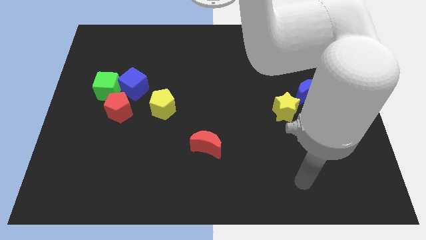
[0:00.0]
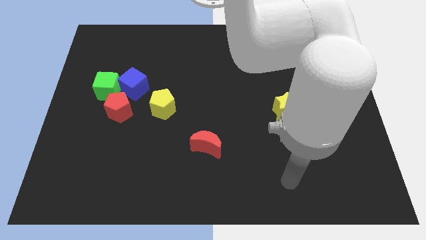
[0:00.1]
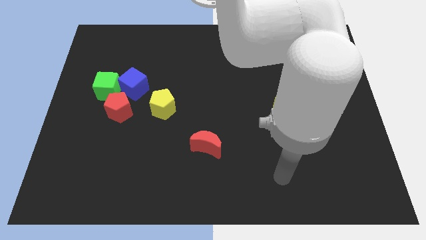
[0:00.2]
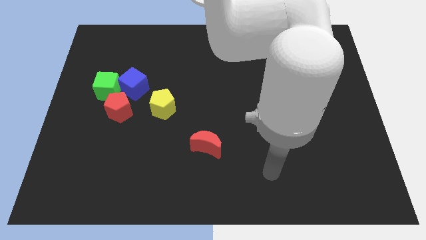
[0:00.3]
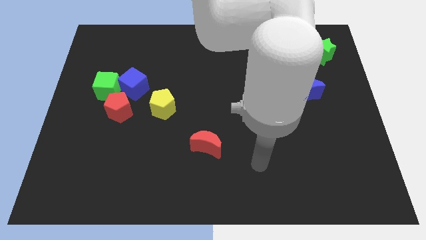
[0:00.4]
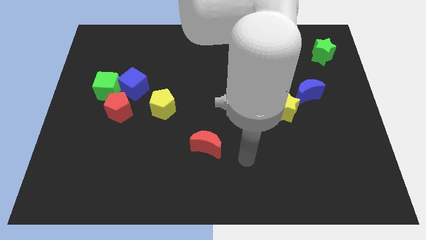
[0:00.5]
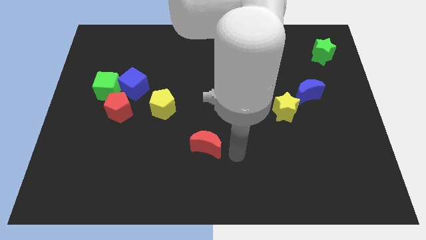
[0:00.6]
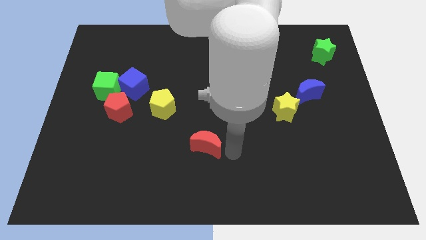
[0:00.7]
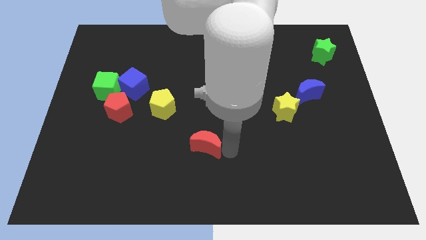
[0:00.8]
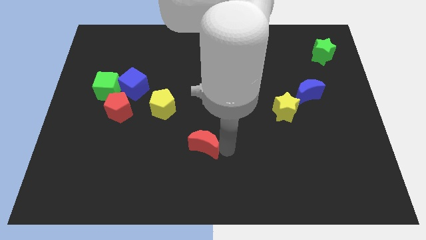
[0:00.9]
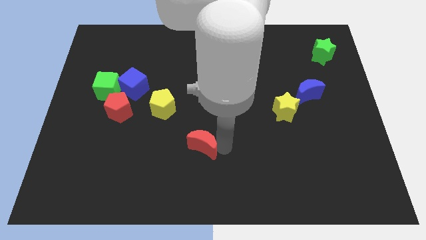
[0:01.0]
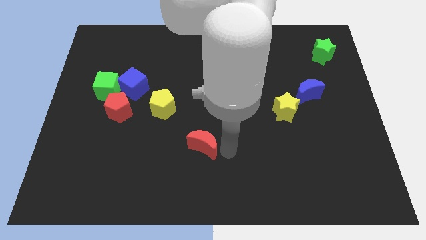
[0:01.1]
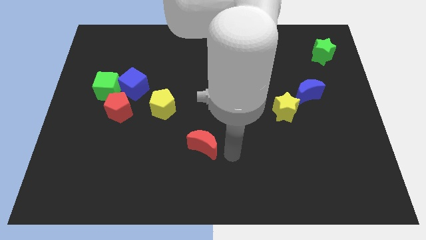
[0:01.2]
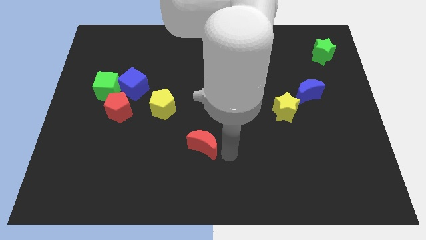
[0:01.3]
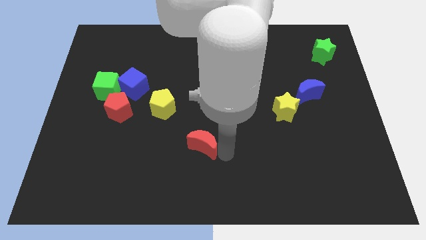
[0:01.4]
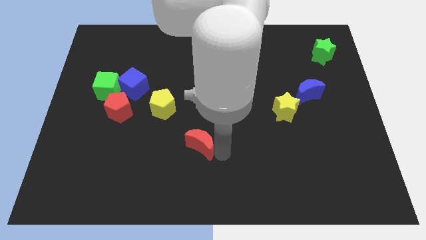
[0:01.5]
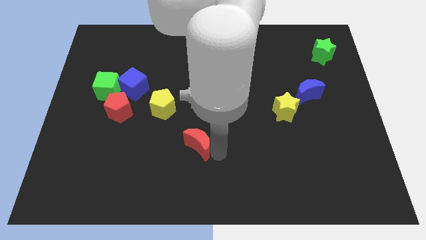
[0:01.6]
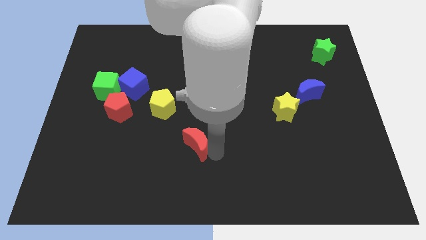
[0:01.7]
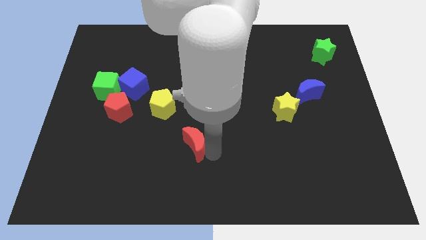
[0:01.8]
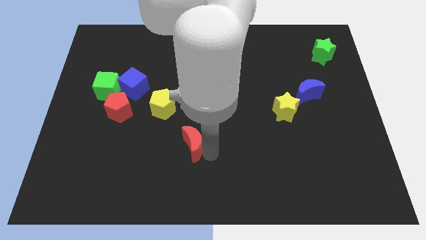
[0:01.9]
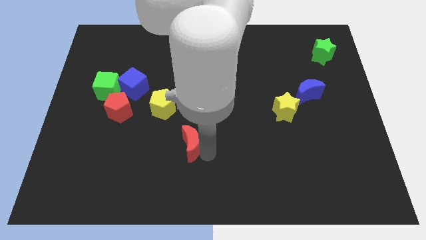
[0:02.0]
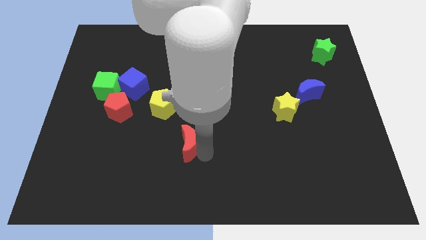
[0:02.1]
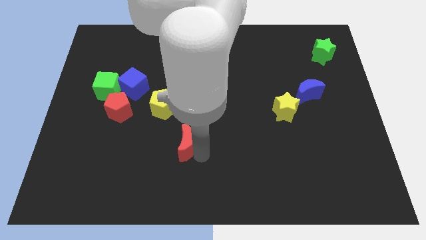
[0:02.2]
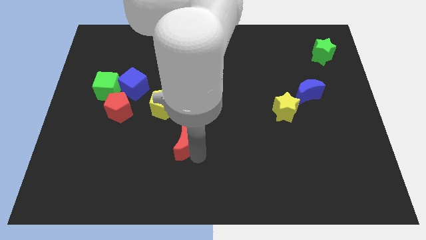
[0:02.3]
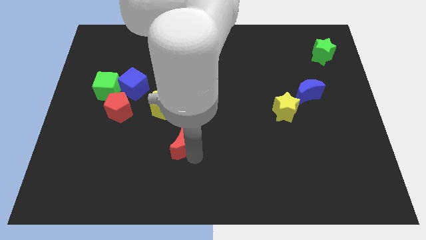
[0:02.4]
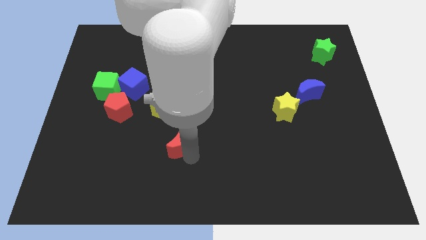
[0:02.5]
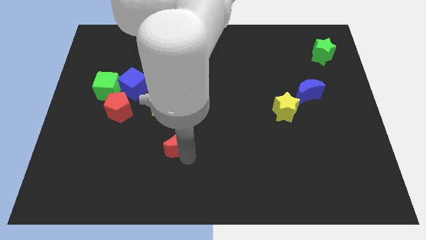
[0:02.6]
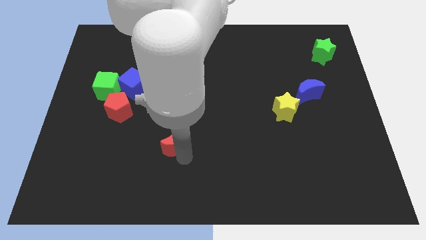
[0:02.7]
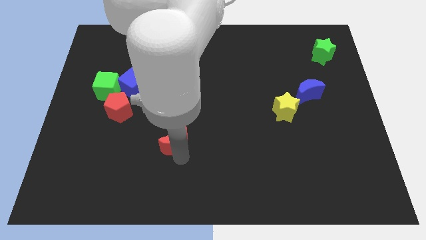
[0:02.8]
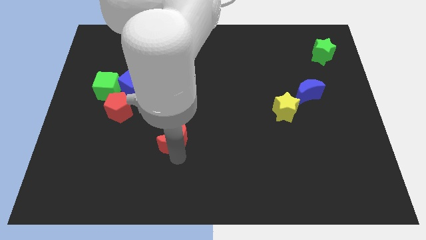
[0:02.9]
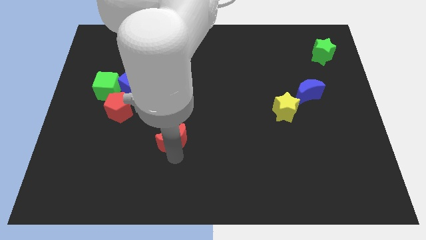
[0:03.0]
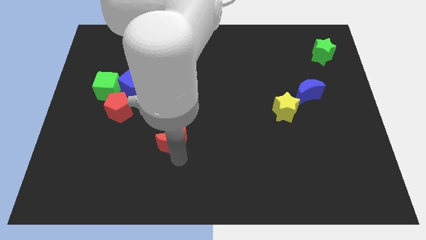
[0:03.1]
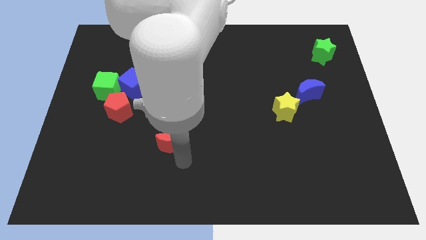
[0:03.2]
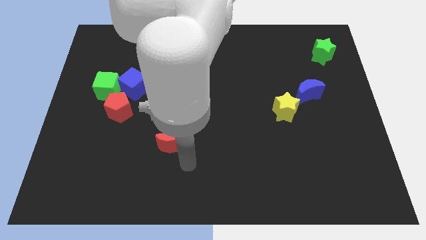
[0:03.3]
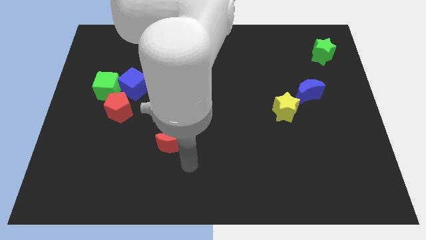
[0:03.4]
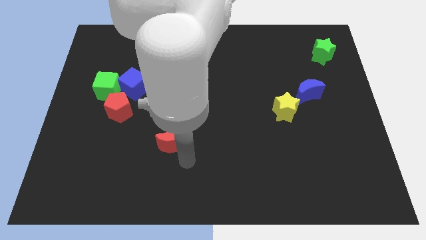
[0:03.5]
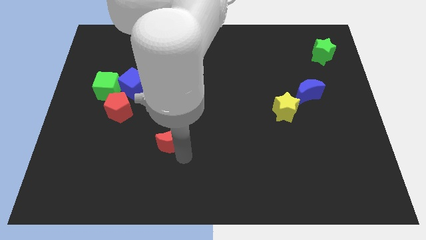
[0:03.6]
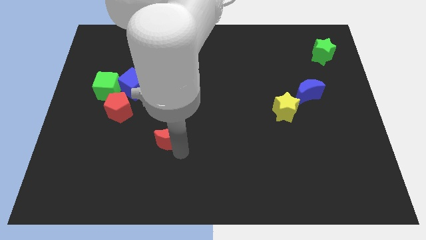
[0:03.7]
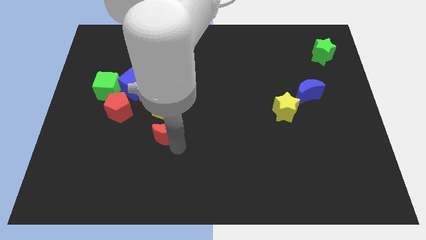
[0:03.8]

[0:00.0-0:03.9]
push the red moon diagonally upwards and to the left a bit

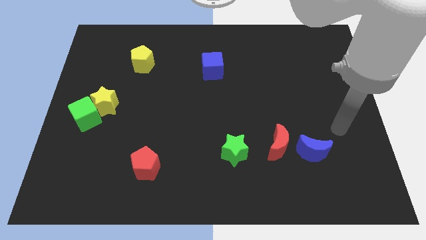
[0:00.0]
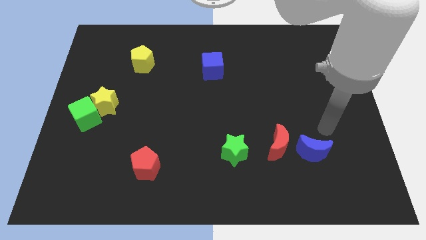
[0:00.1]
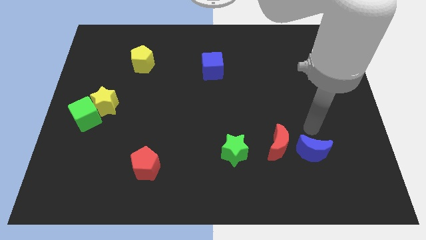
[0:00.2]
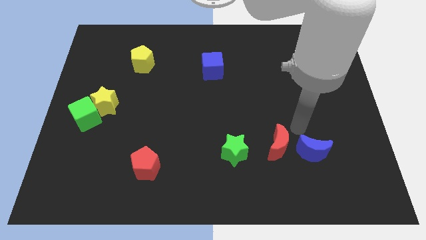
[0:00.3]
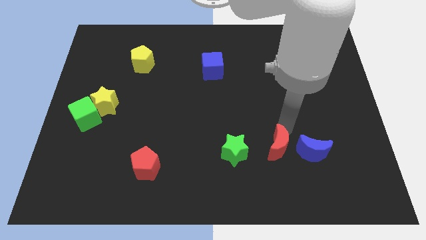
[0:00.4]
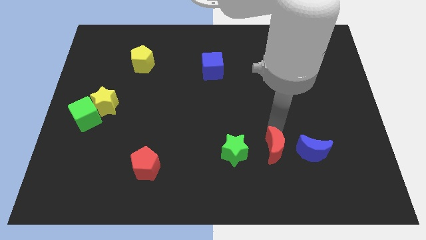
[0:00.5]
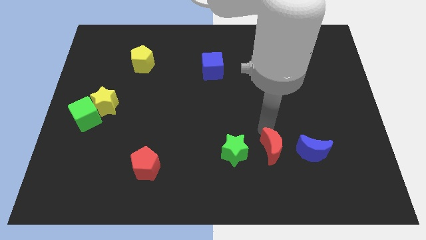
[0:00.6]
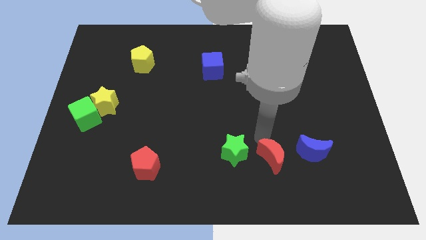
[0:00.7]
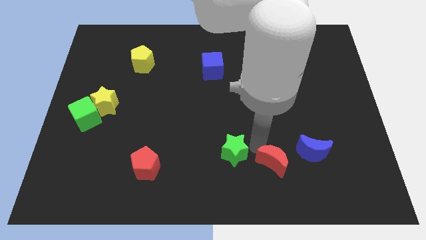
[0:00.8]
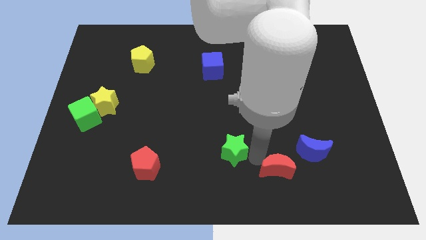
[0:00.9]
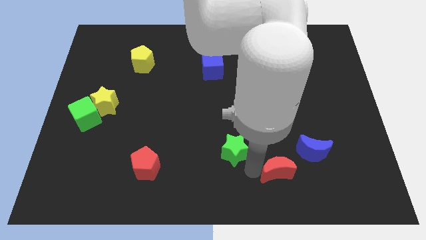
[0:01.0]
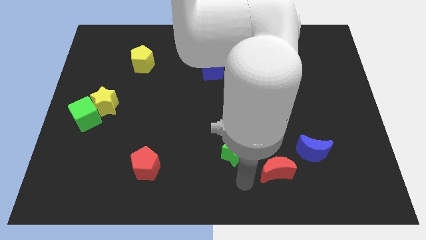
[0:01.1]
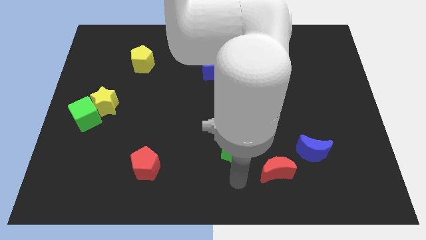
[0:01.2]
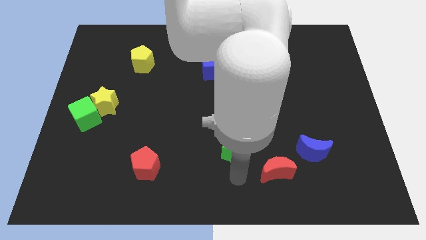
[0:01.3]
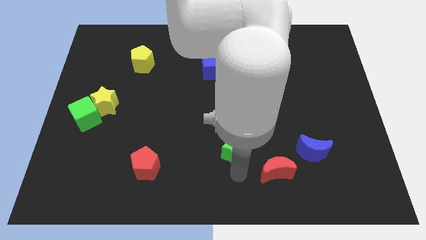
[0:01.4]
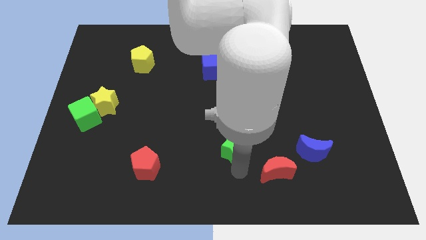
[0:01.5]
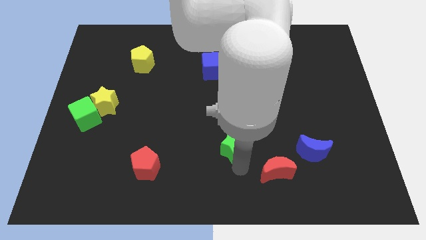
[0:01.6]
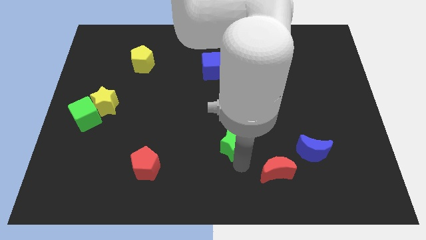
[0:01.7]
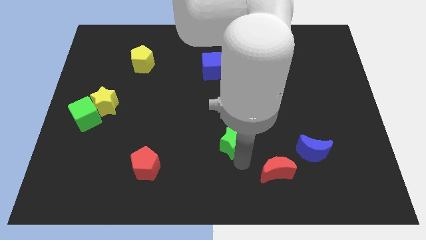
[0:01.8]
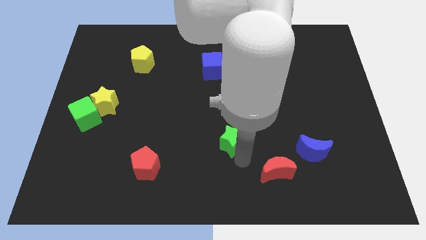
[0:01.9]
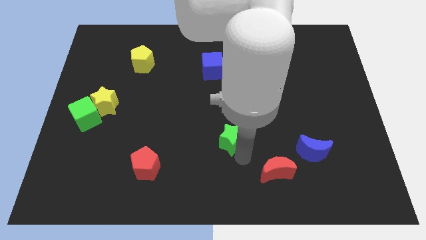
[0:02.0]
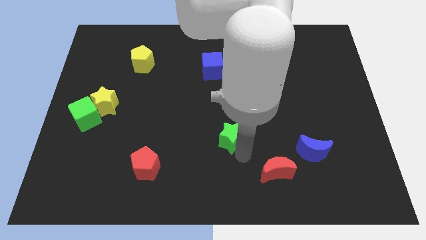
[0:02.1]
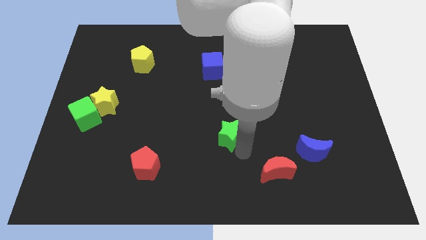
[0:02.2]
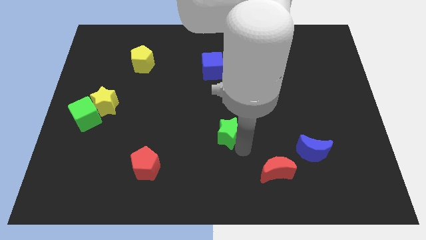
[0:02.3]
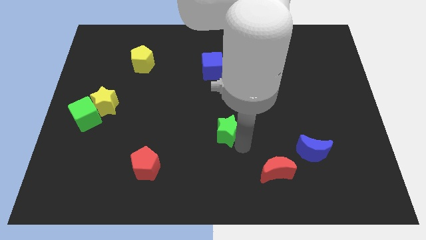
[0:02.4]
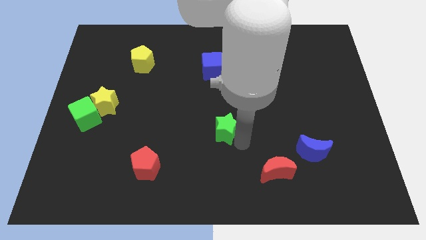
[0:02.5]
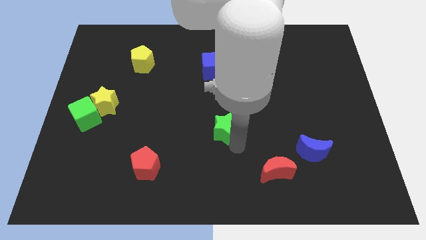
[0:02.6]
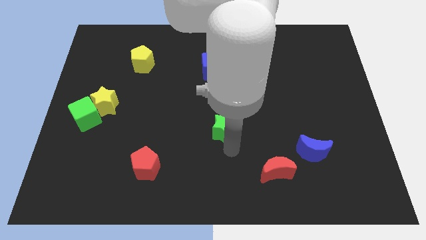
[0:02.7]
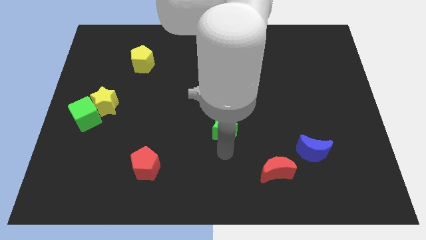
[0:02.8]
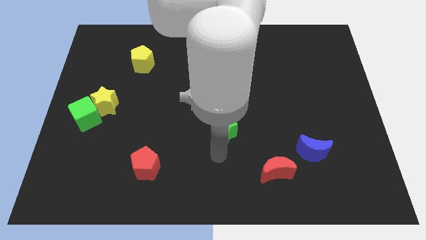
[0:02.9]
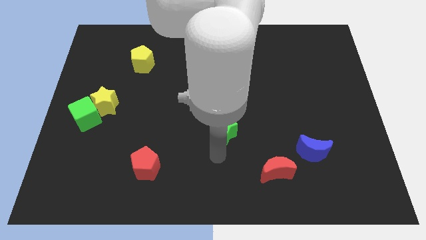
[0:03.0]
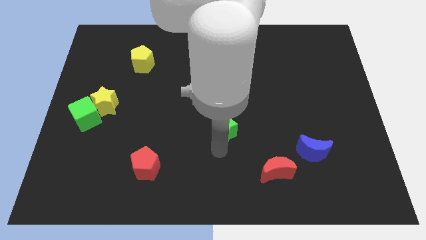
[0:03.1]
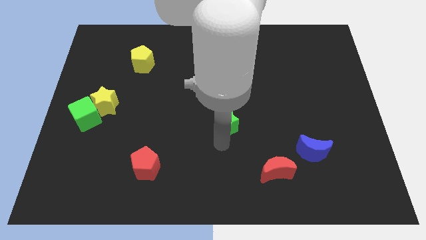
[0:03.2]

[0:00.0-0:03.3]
slide the green star somewhat up

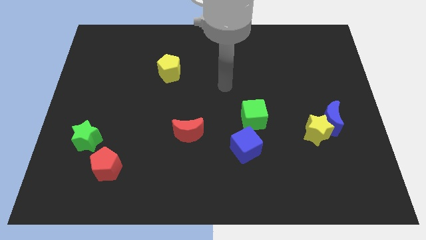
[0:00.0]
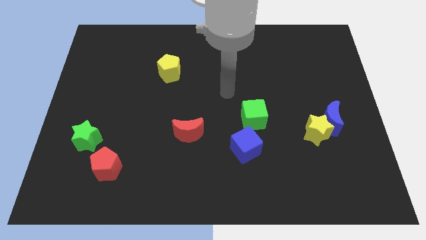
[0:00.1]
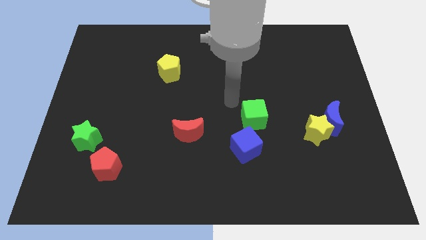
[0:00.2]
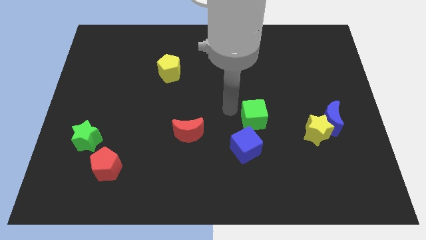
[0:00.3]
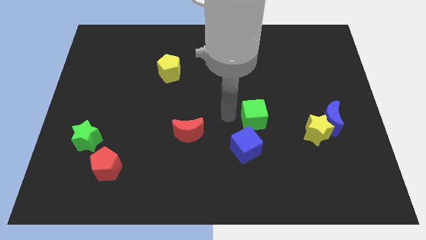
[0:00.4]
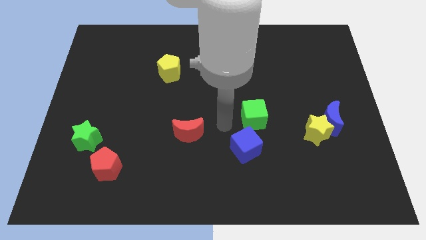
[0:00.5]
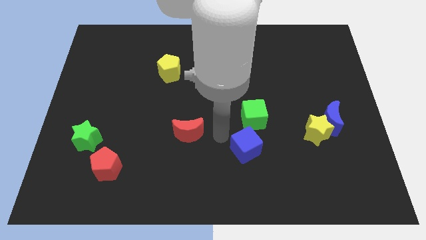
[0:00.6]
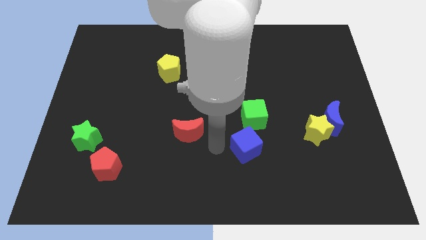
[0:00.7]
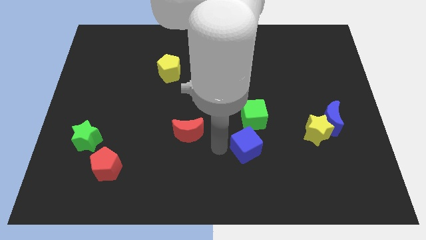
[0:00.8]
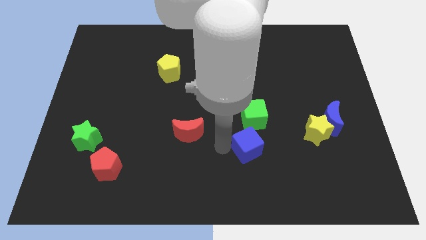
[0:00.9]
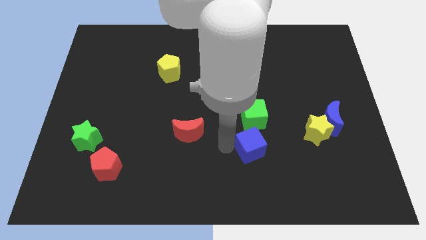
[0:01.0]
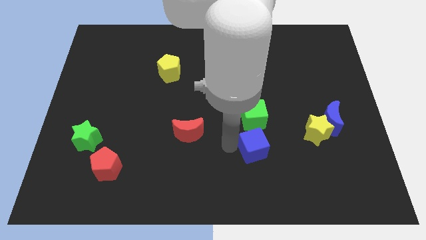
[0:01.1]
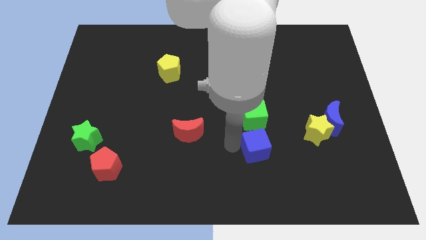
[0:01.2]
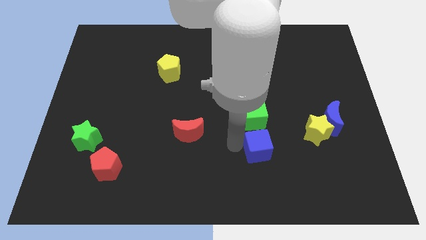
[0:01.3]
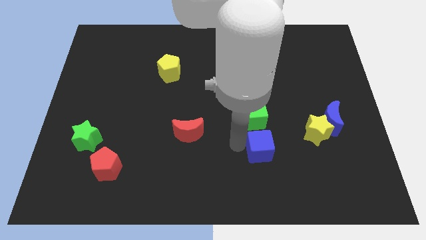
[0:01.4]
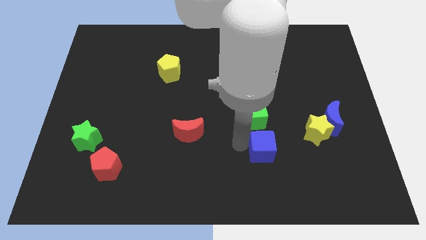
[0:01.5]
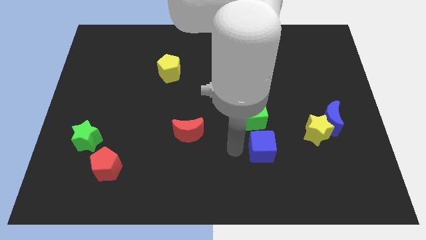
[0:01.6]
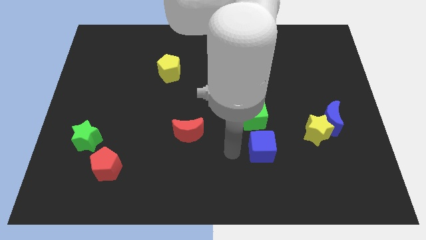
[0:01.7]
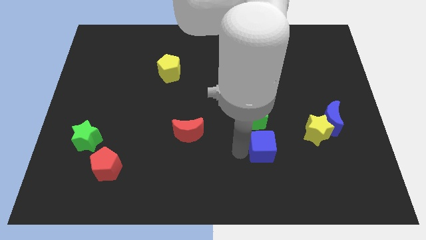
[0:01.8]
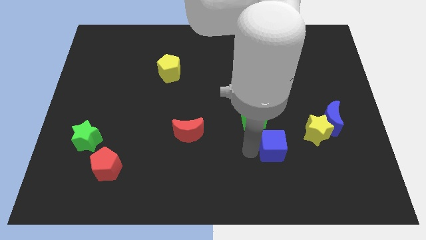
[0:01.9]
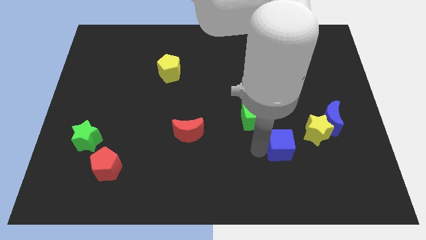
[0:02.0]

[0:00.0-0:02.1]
push the blue cube a little bit to the right
